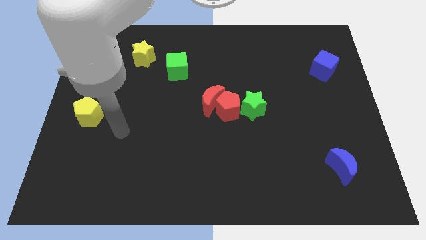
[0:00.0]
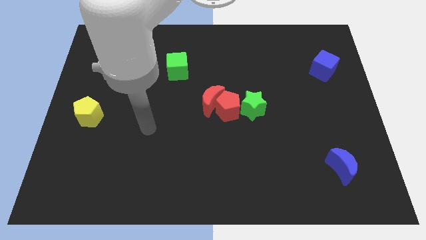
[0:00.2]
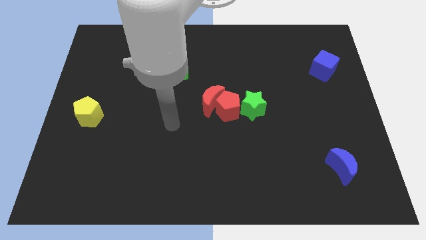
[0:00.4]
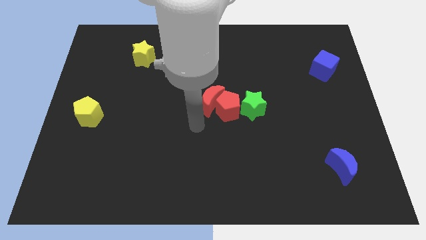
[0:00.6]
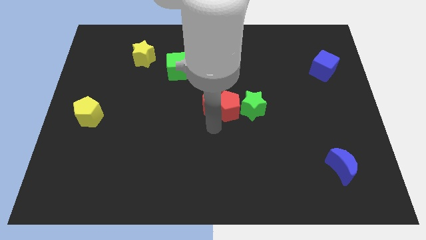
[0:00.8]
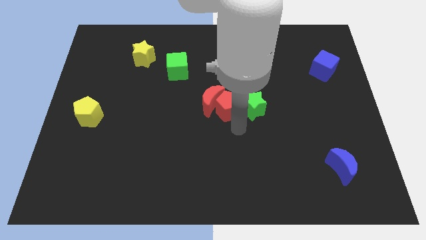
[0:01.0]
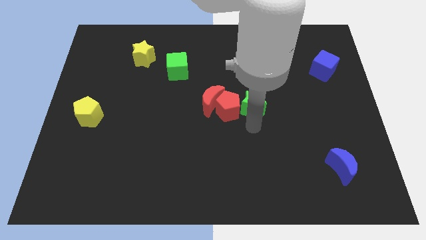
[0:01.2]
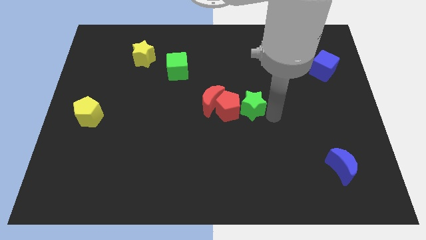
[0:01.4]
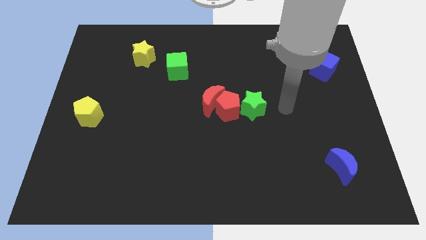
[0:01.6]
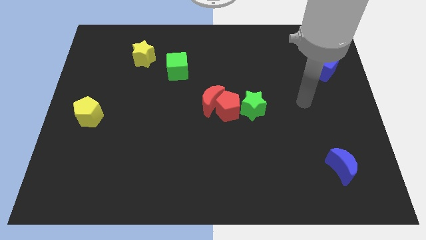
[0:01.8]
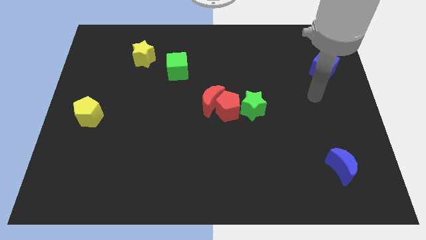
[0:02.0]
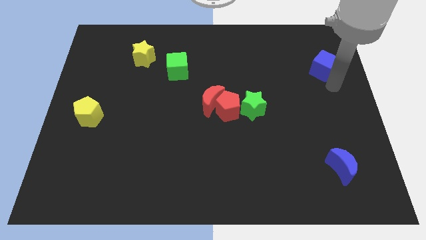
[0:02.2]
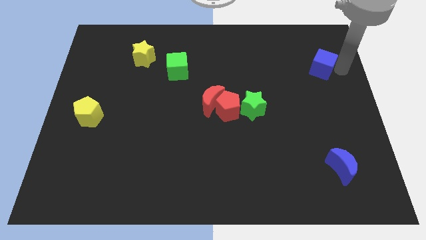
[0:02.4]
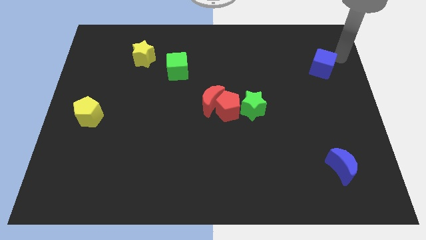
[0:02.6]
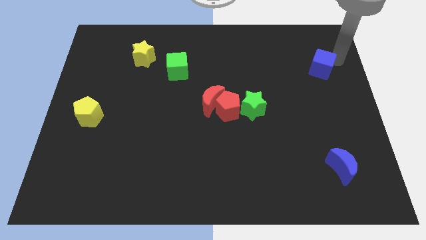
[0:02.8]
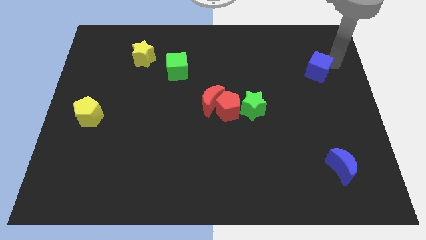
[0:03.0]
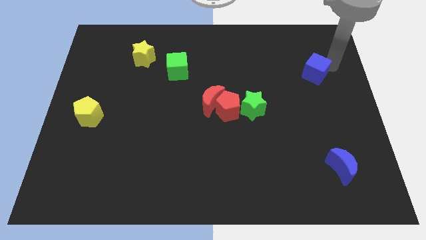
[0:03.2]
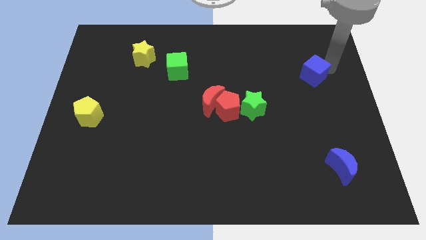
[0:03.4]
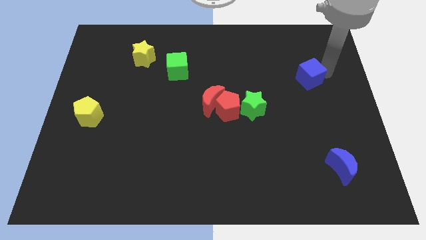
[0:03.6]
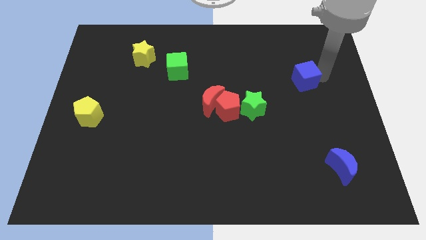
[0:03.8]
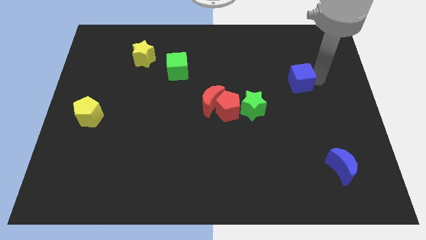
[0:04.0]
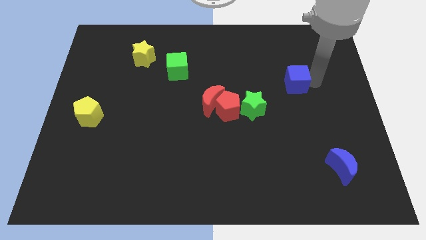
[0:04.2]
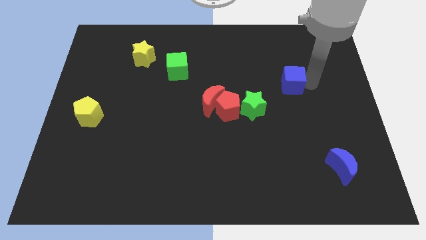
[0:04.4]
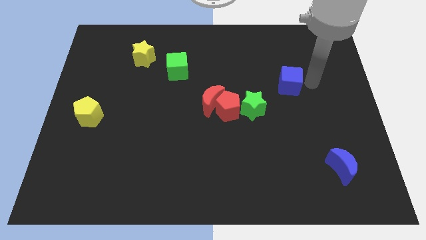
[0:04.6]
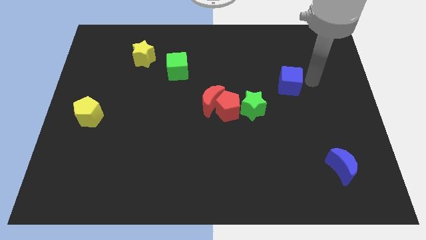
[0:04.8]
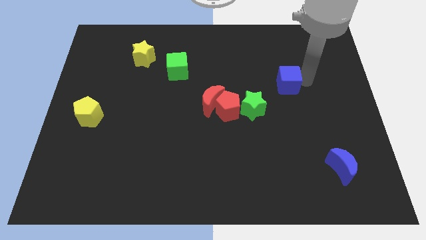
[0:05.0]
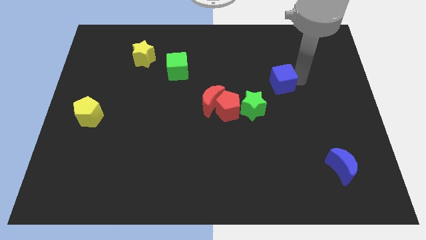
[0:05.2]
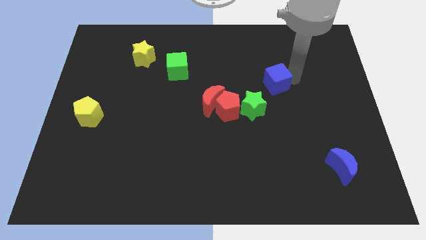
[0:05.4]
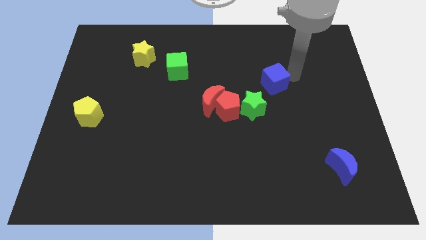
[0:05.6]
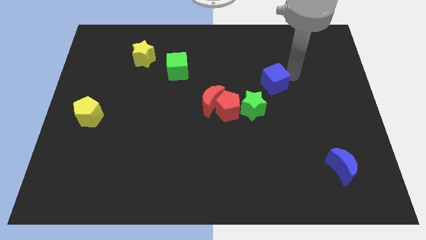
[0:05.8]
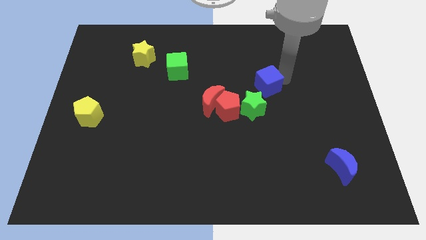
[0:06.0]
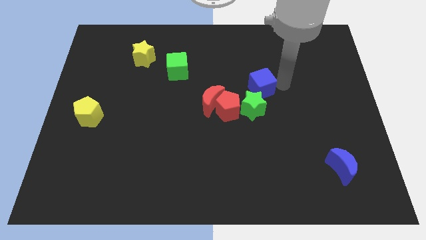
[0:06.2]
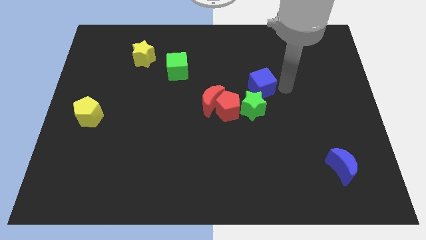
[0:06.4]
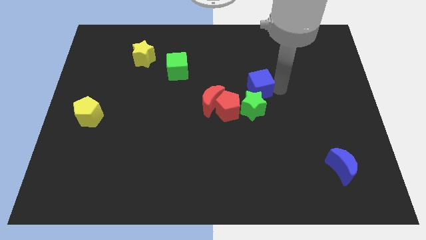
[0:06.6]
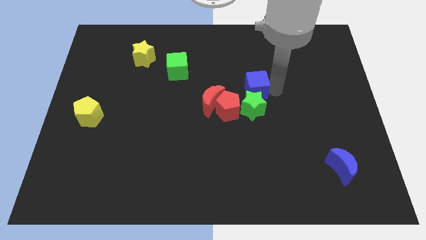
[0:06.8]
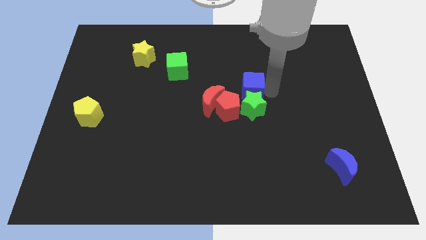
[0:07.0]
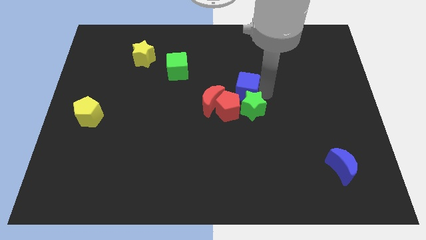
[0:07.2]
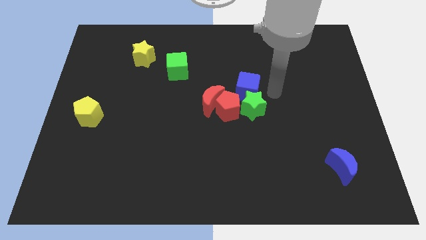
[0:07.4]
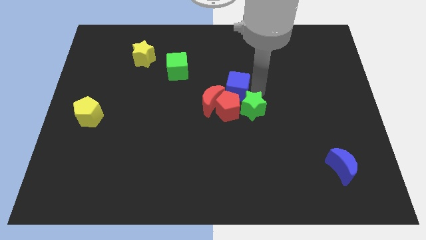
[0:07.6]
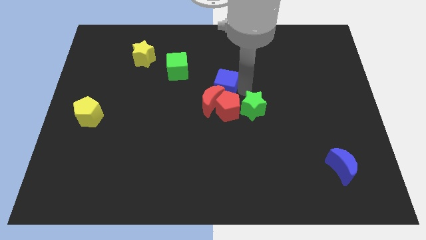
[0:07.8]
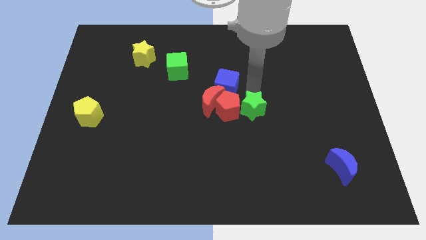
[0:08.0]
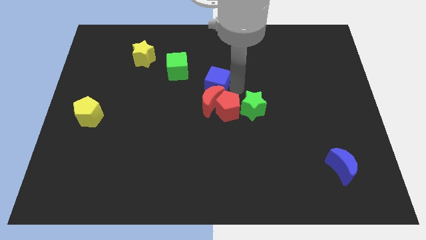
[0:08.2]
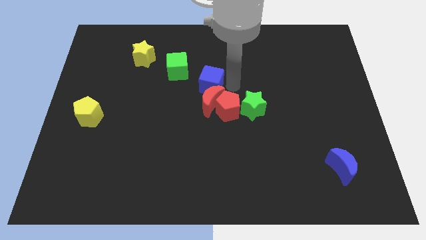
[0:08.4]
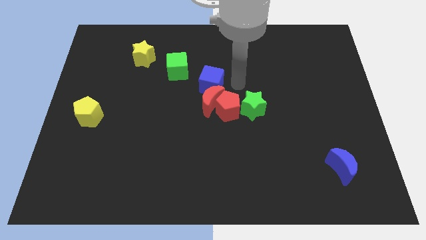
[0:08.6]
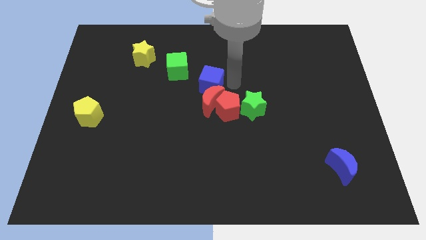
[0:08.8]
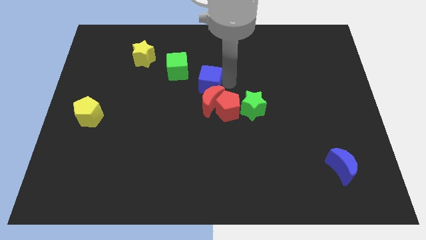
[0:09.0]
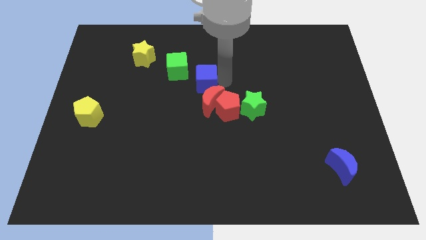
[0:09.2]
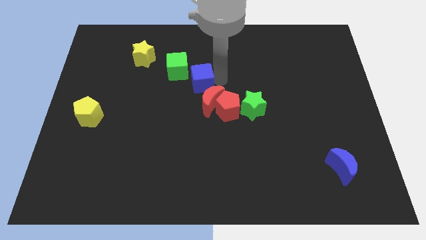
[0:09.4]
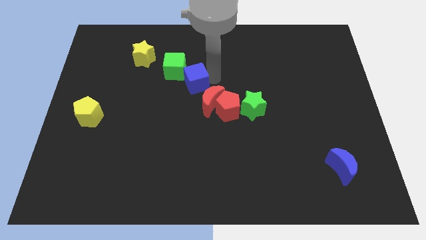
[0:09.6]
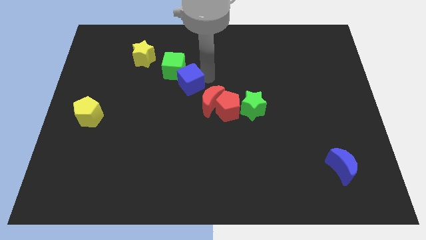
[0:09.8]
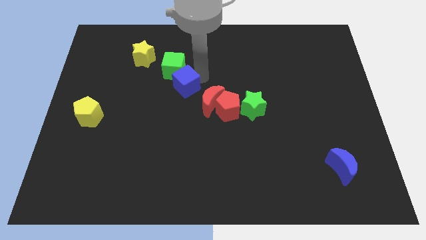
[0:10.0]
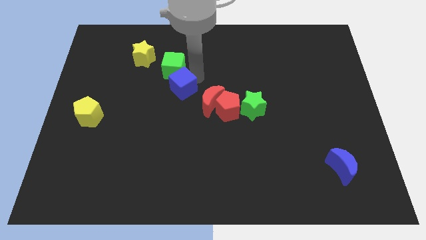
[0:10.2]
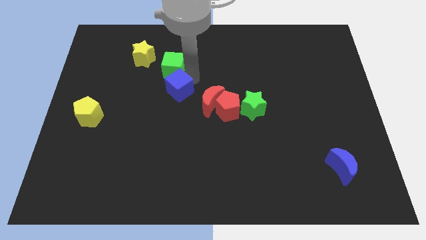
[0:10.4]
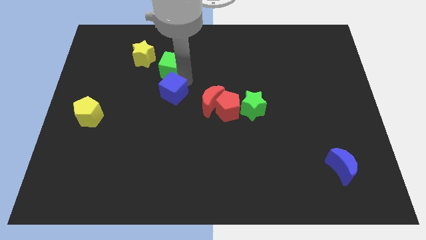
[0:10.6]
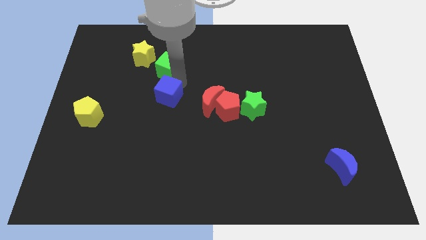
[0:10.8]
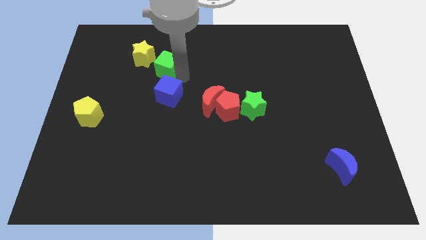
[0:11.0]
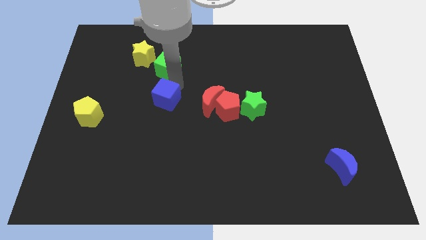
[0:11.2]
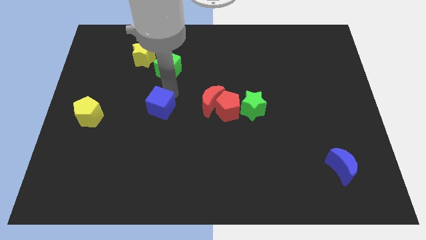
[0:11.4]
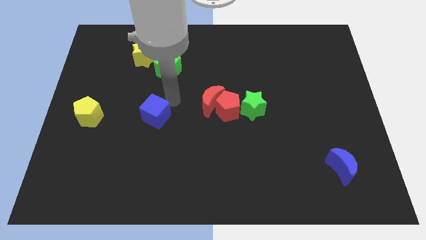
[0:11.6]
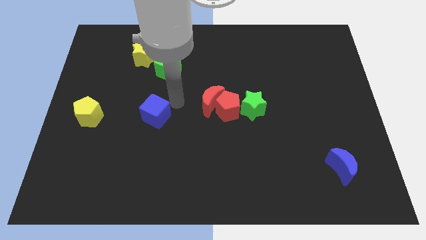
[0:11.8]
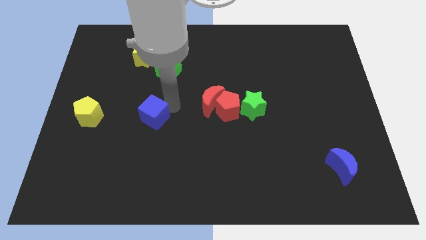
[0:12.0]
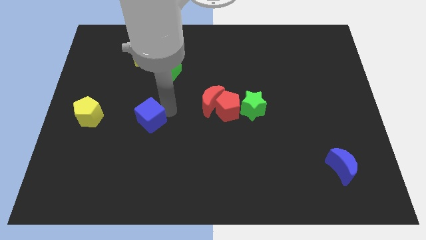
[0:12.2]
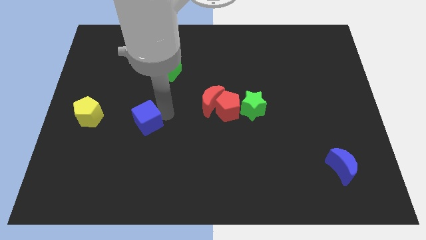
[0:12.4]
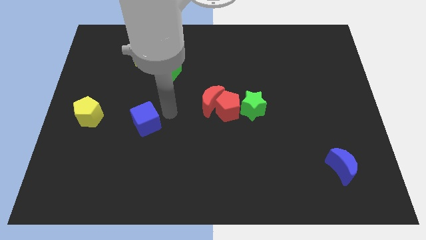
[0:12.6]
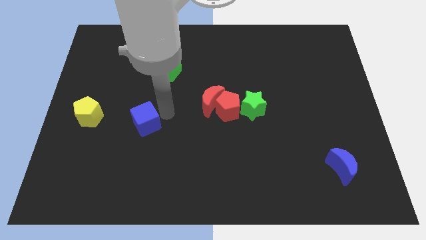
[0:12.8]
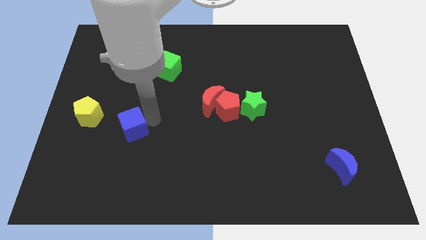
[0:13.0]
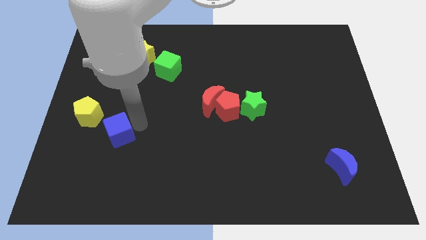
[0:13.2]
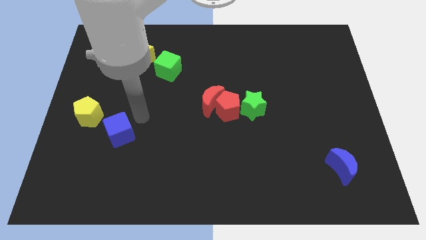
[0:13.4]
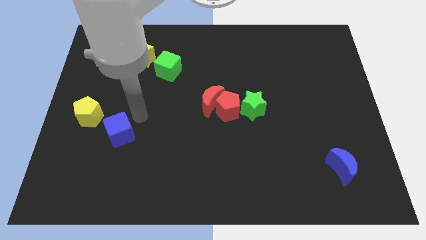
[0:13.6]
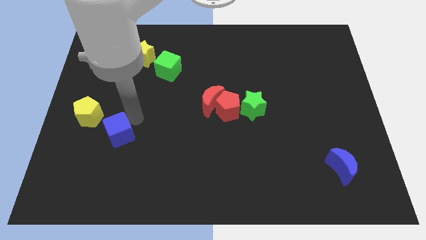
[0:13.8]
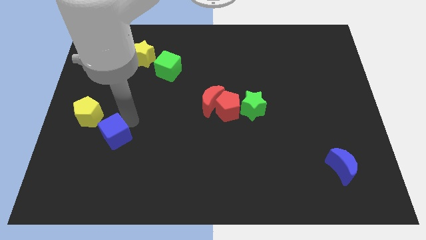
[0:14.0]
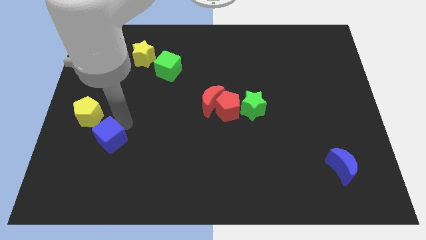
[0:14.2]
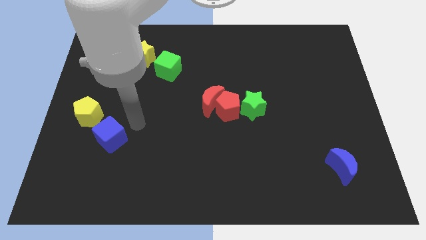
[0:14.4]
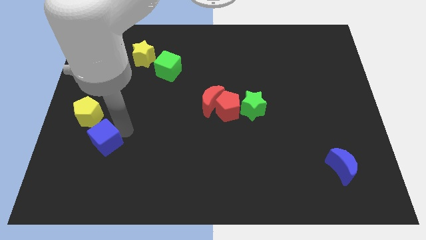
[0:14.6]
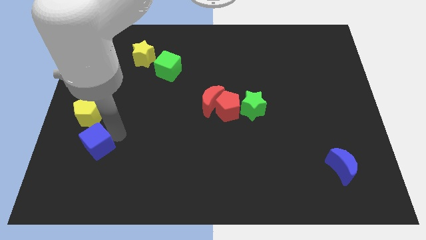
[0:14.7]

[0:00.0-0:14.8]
move the blue cube to the bottom of the yellow pentagon
